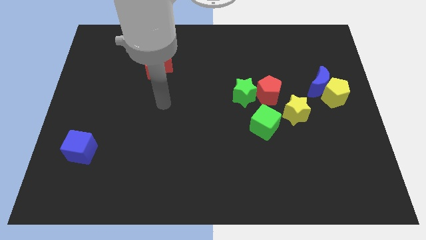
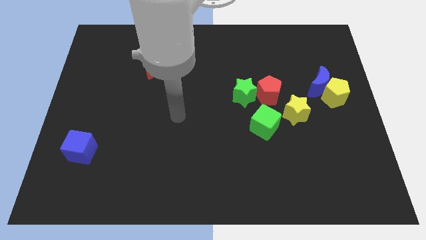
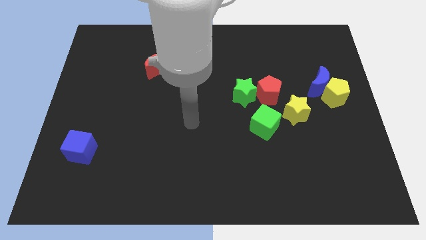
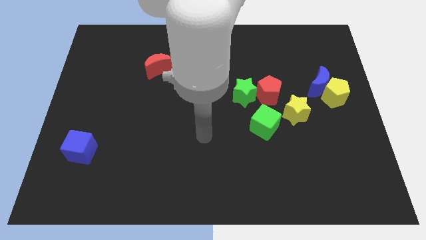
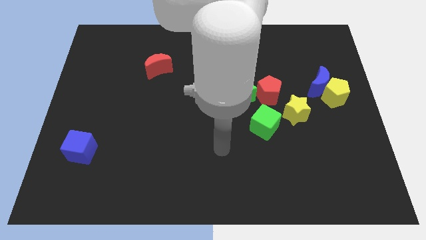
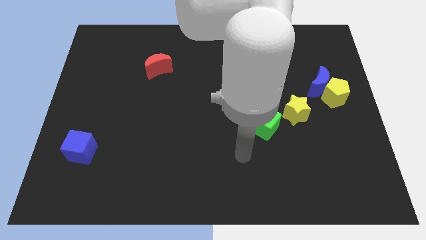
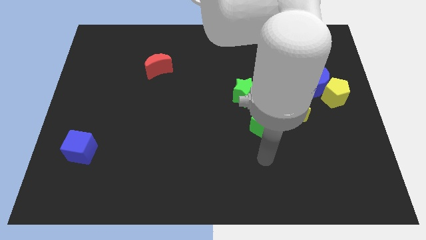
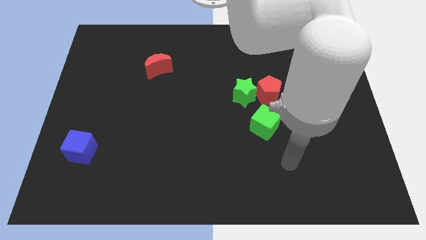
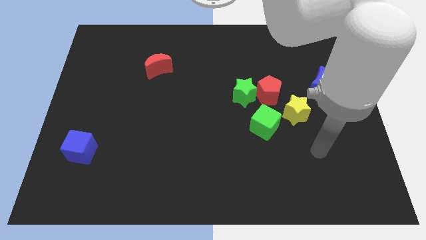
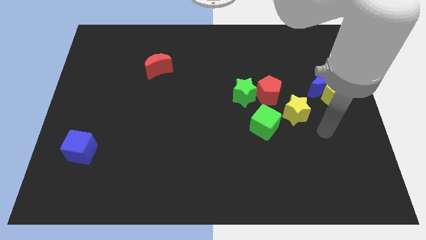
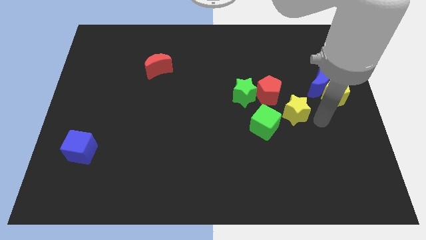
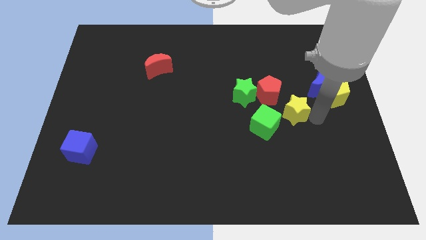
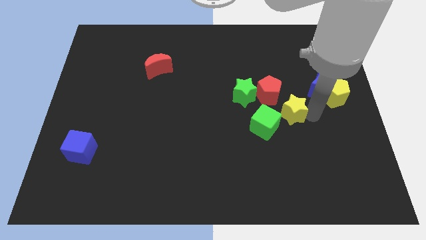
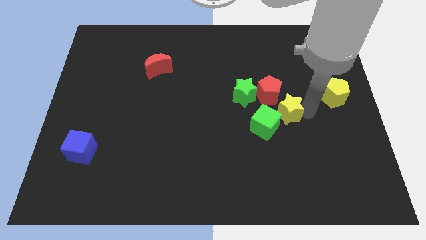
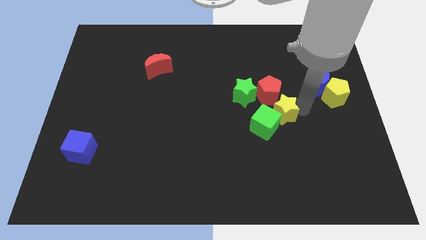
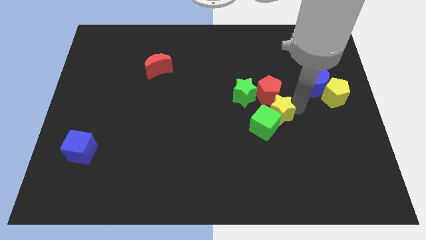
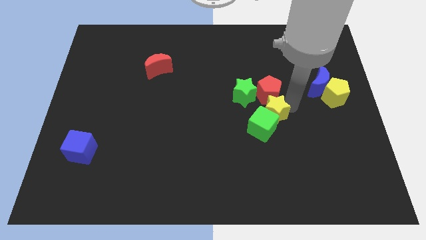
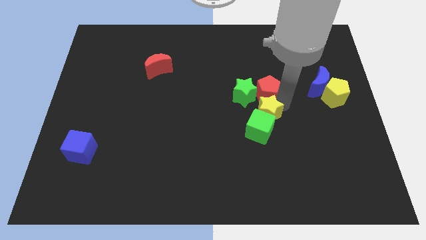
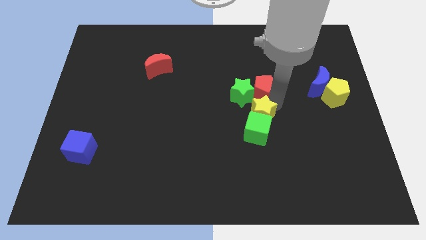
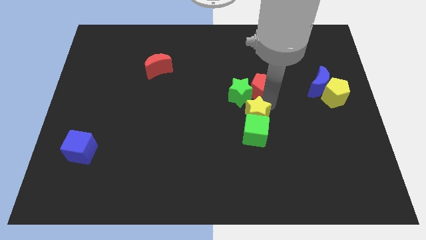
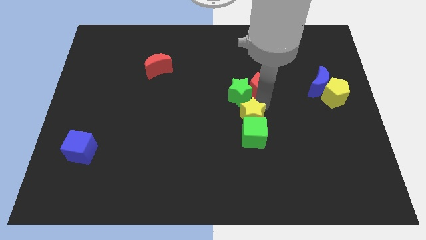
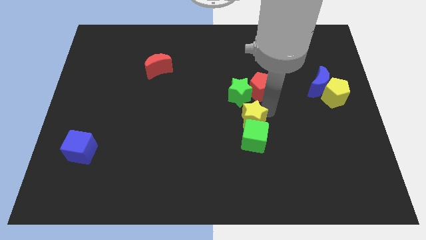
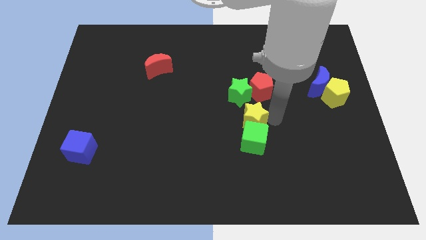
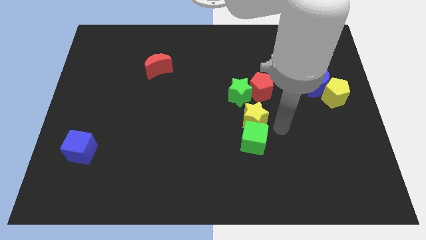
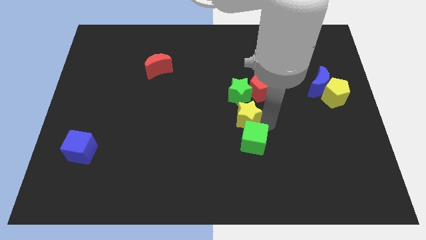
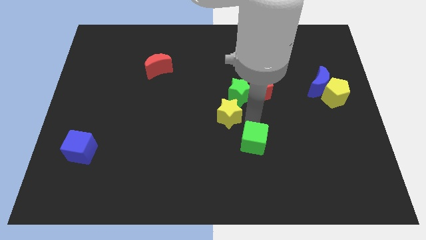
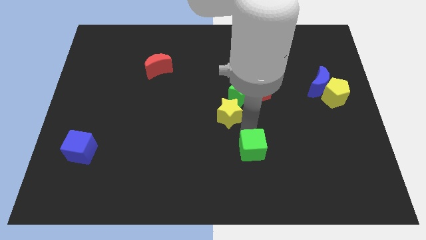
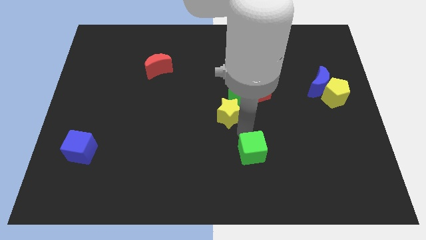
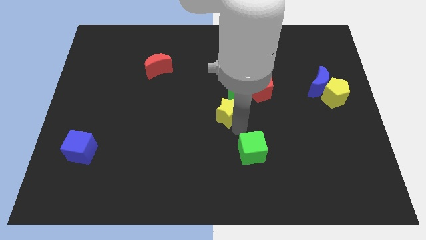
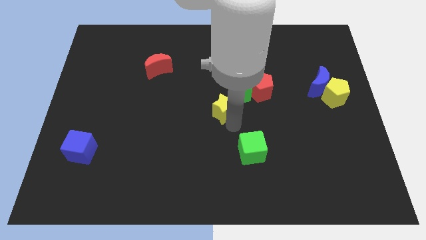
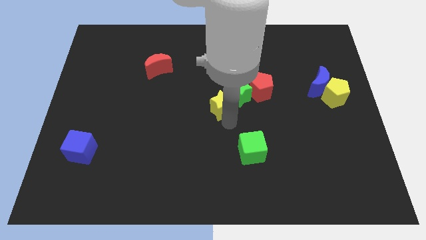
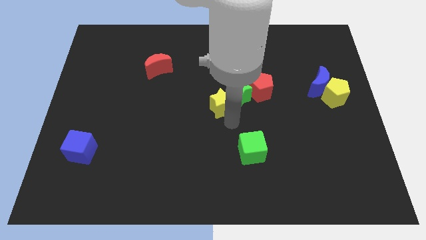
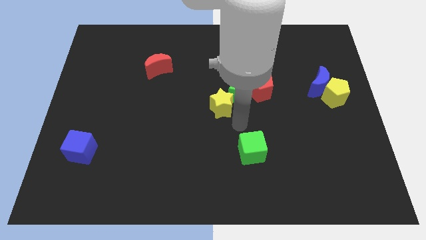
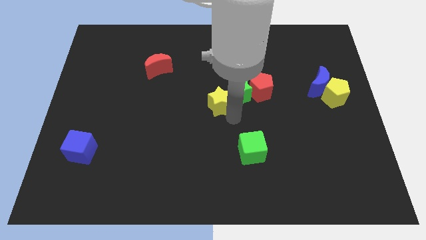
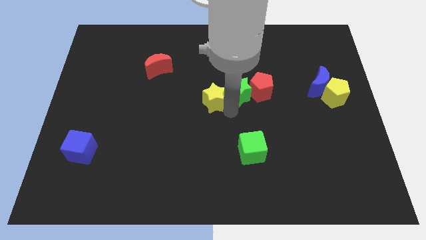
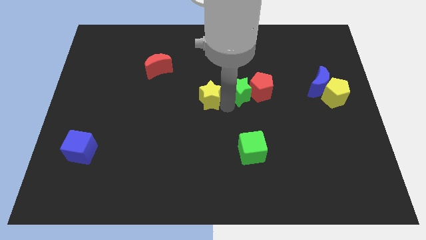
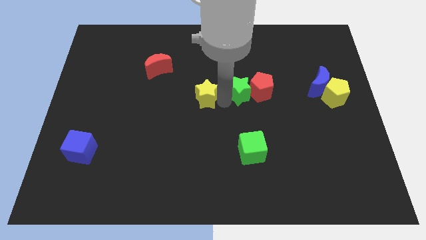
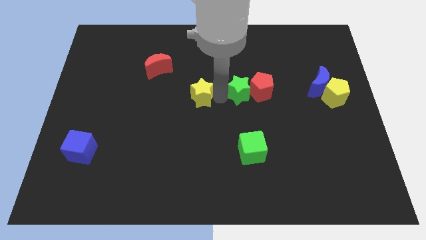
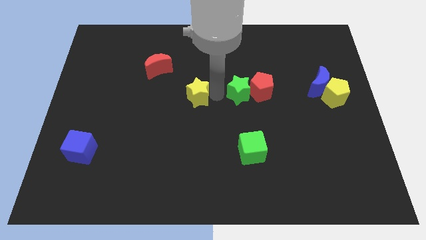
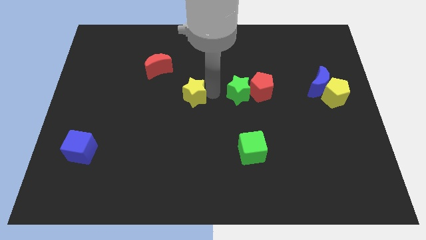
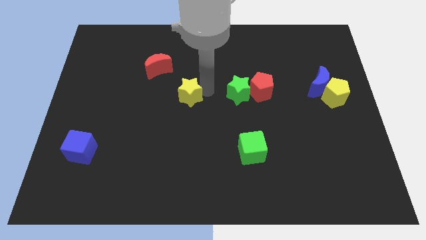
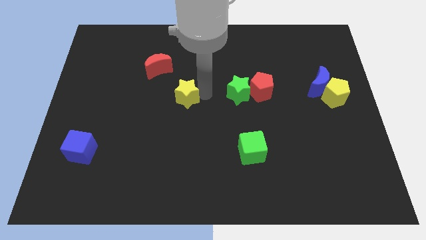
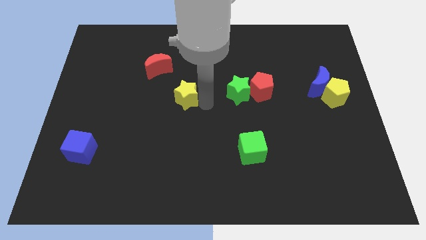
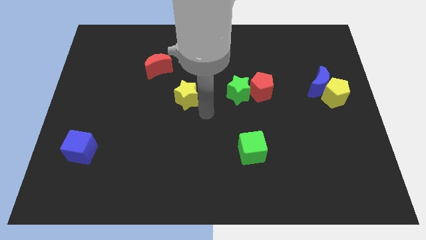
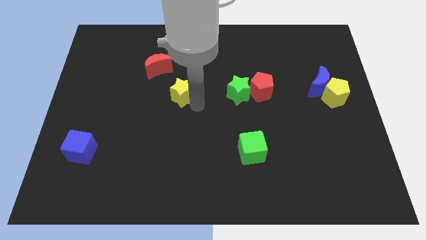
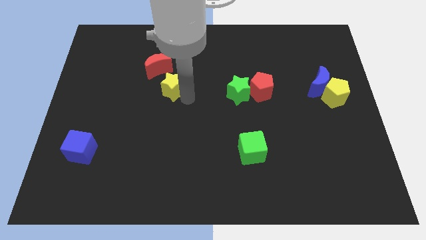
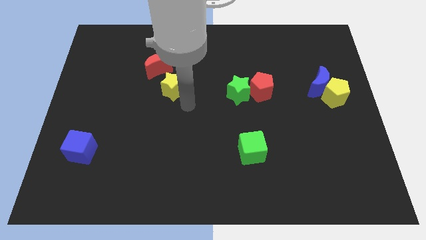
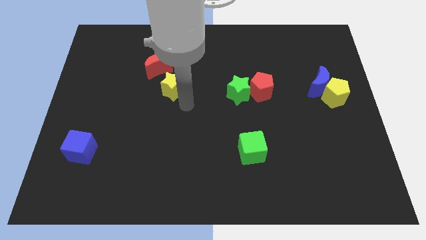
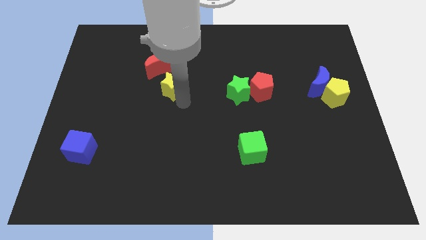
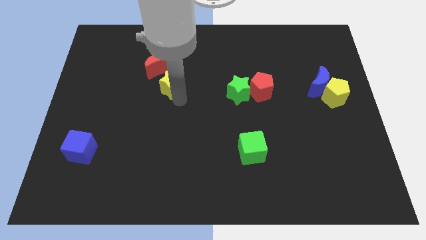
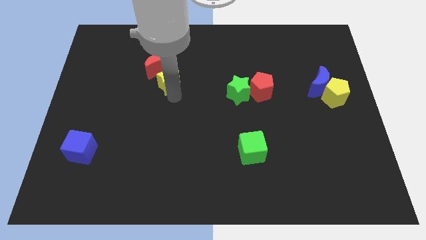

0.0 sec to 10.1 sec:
move the yellow star next to the red moon

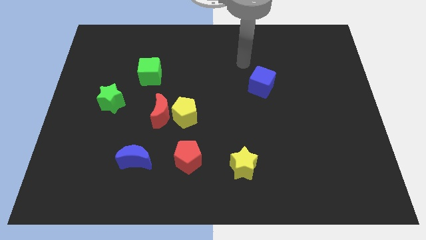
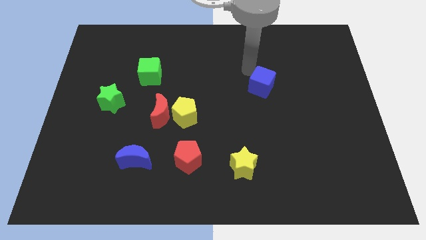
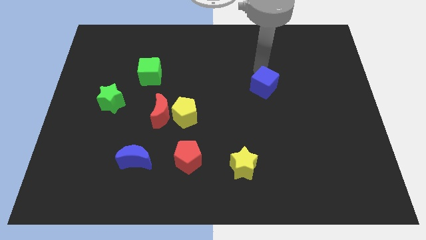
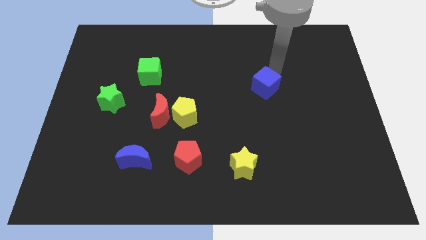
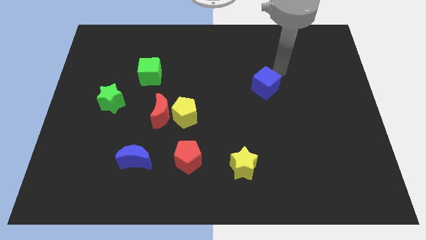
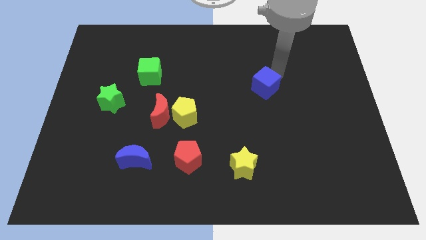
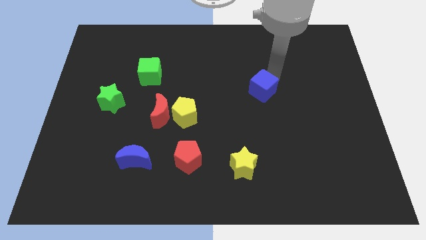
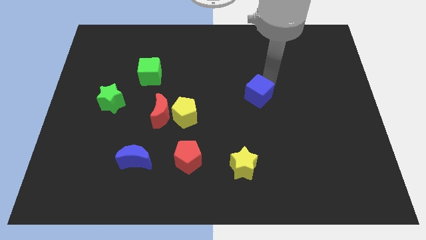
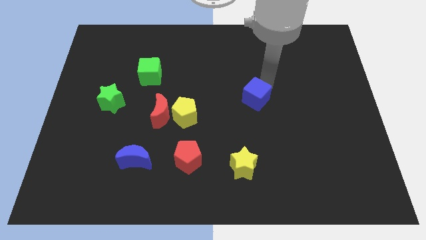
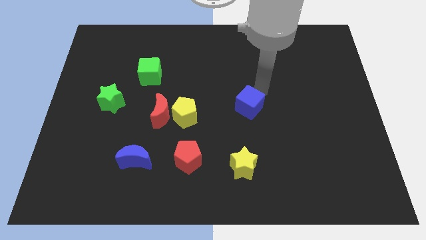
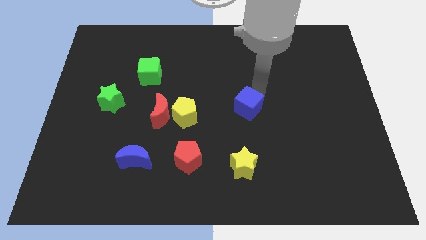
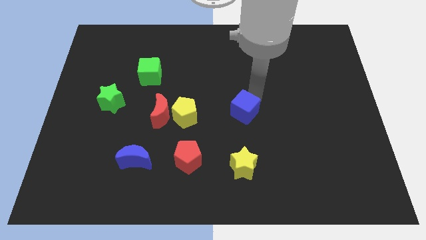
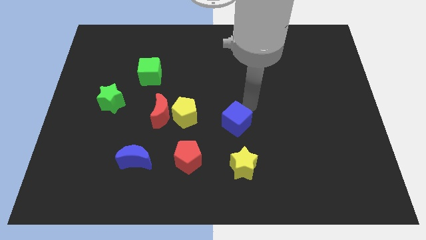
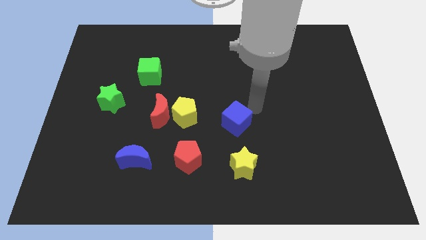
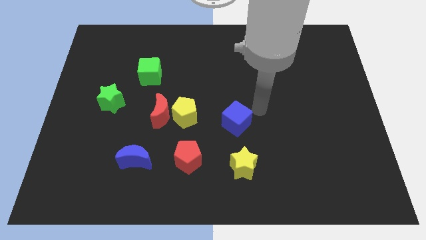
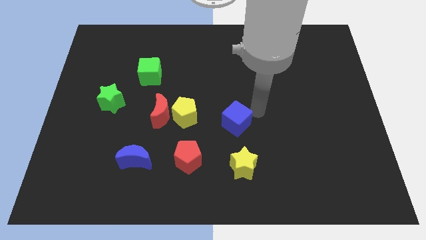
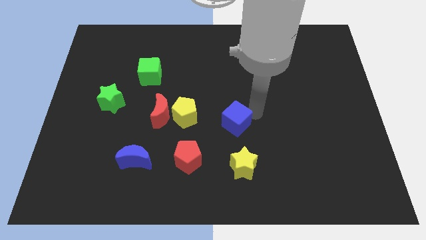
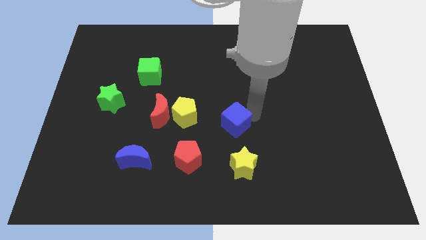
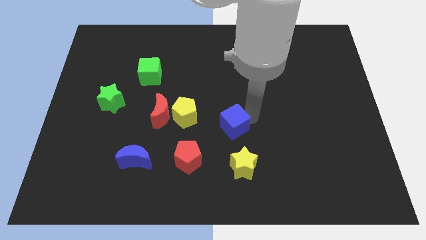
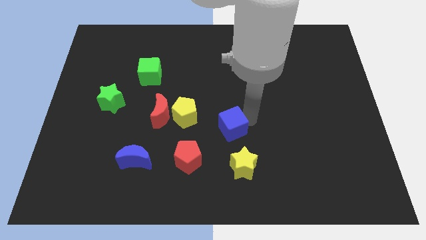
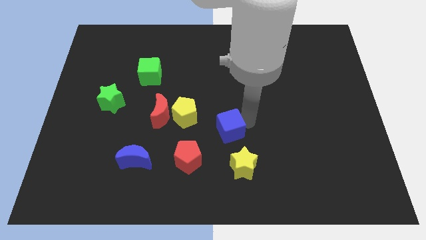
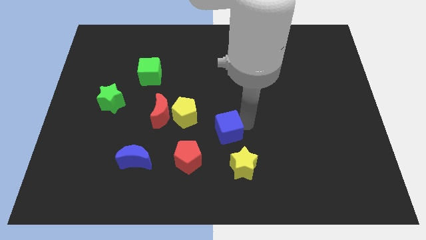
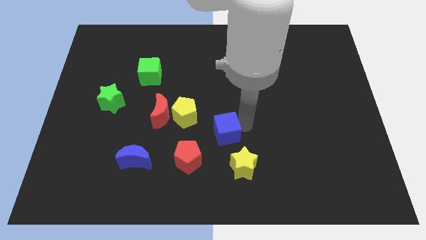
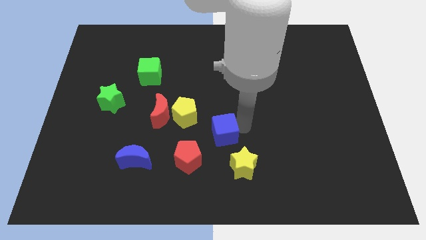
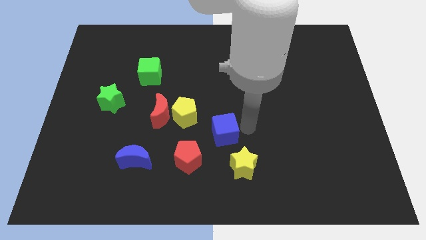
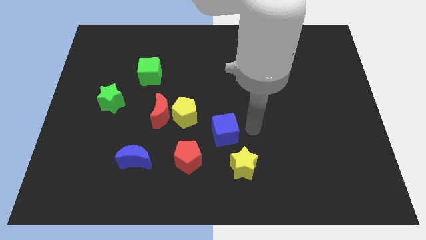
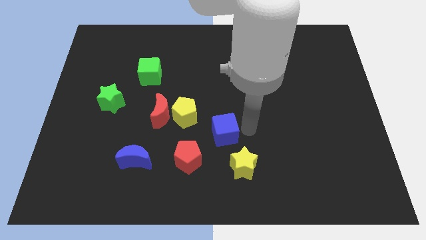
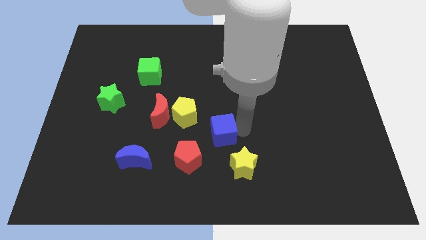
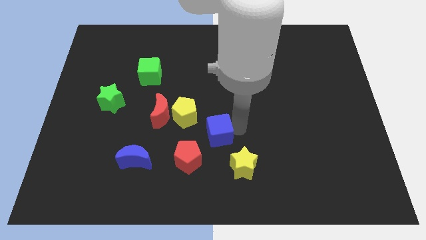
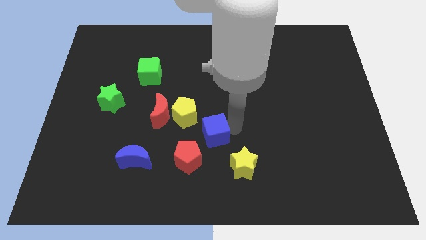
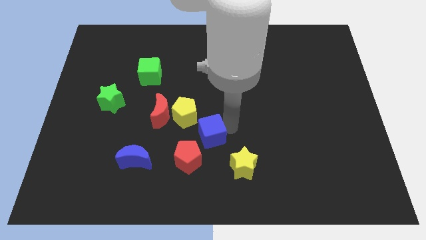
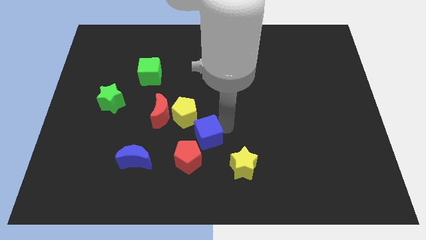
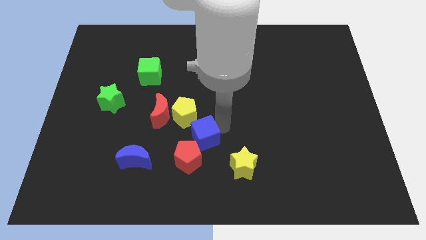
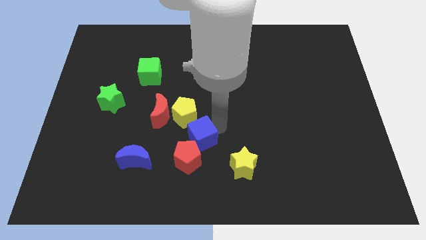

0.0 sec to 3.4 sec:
slide the blue cube close to the red pentagon
